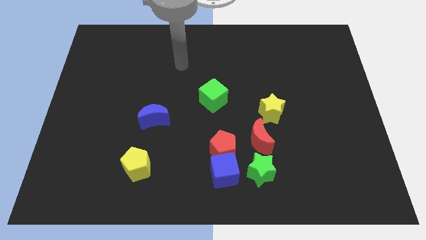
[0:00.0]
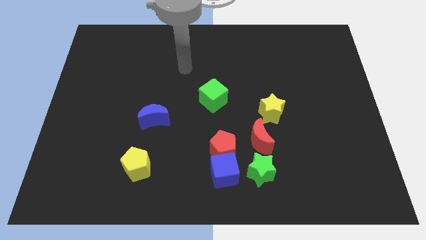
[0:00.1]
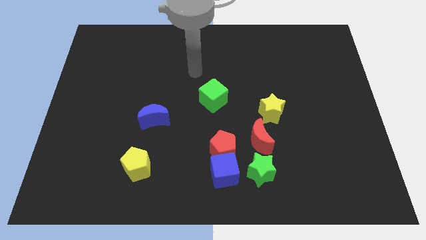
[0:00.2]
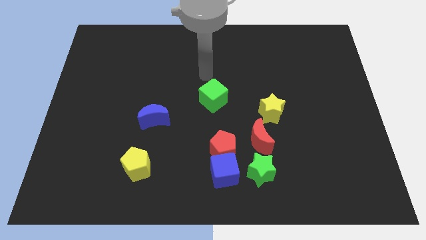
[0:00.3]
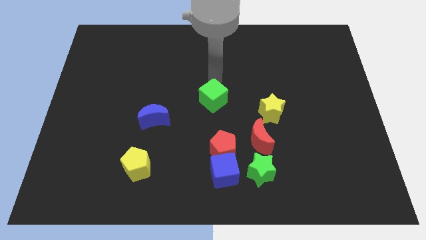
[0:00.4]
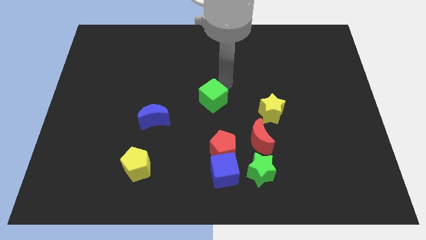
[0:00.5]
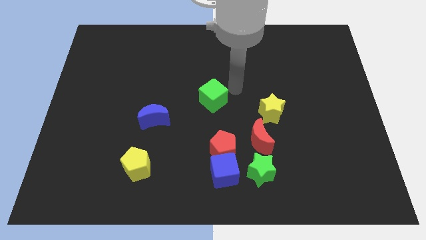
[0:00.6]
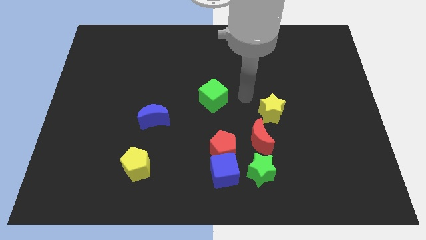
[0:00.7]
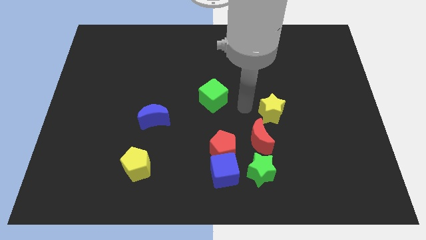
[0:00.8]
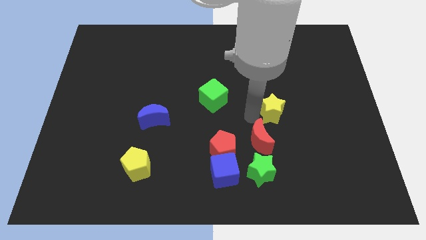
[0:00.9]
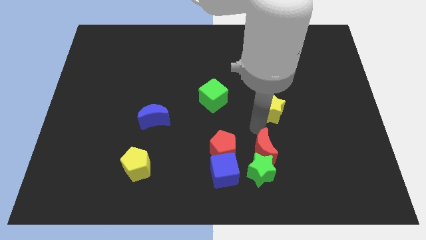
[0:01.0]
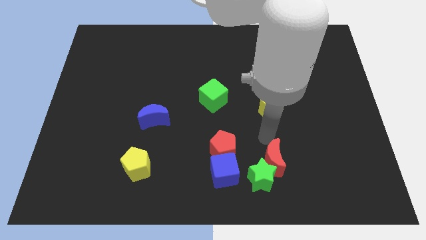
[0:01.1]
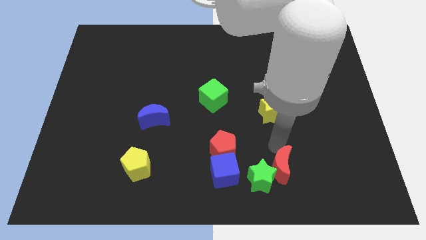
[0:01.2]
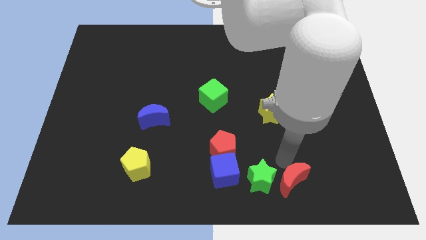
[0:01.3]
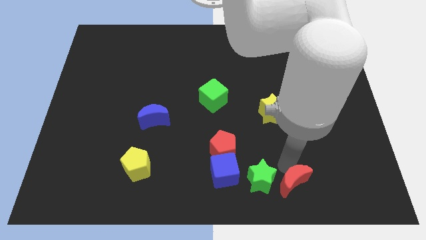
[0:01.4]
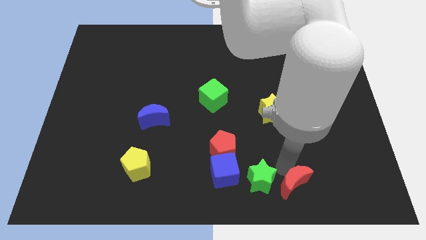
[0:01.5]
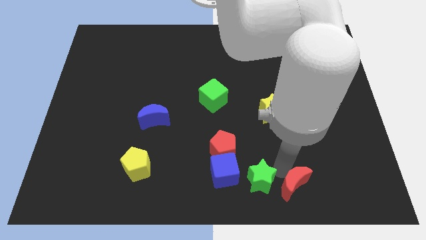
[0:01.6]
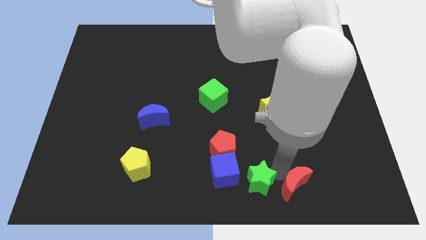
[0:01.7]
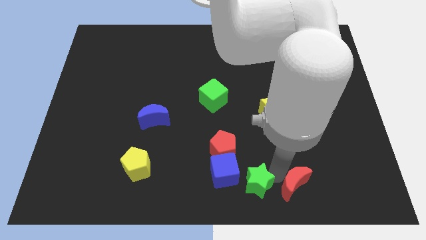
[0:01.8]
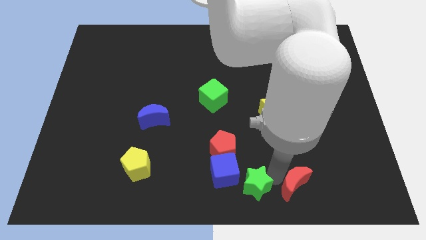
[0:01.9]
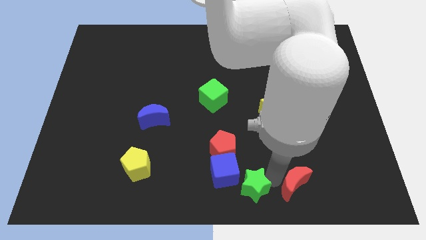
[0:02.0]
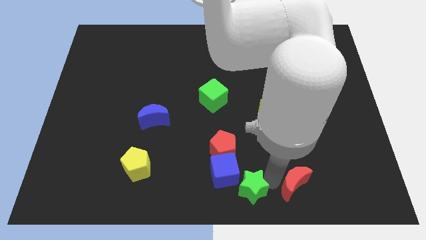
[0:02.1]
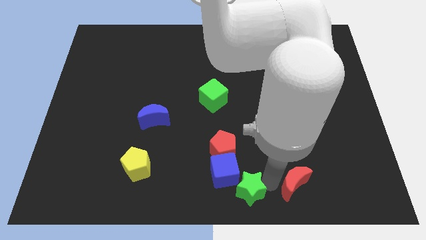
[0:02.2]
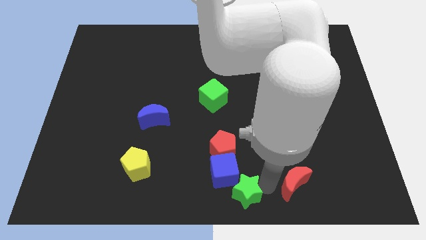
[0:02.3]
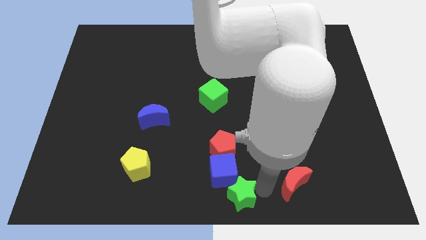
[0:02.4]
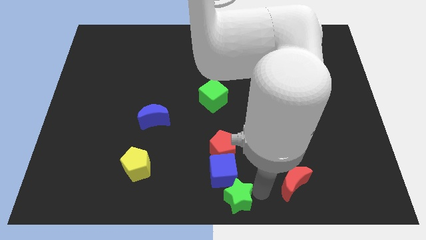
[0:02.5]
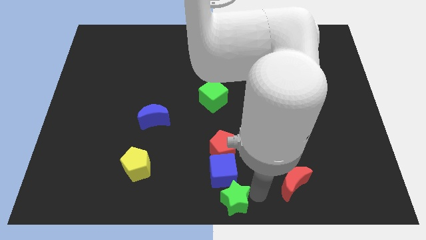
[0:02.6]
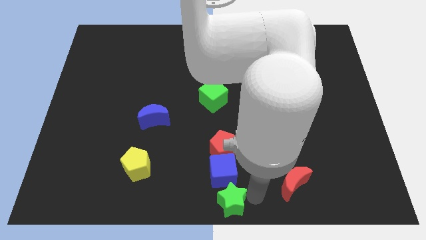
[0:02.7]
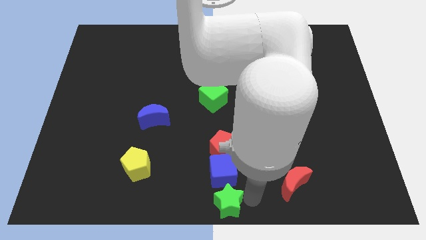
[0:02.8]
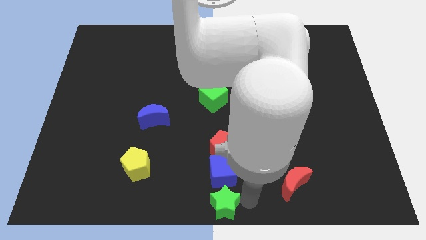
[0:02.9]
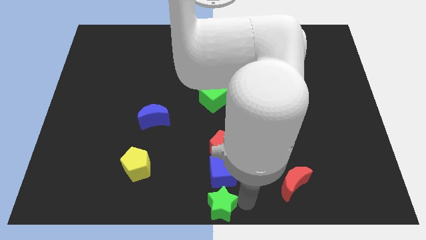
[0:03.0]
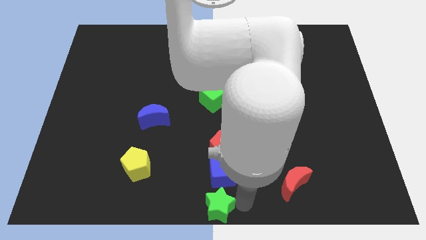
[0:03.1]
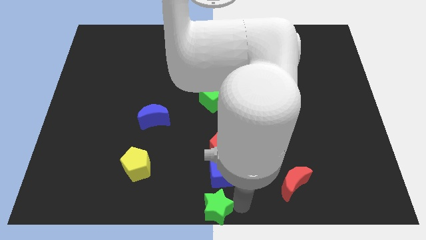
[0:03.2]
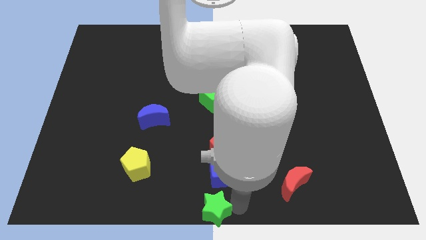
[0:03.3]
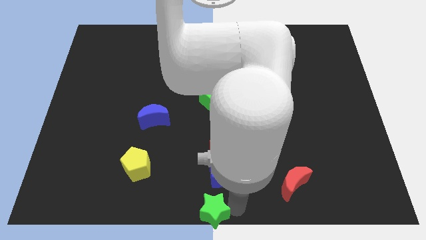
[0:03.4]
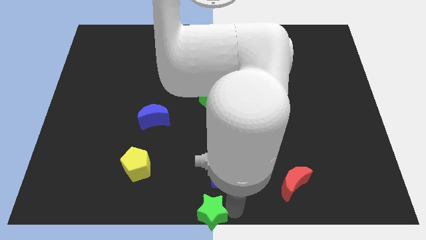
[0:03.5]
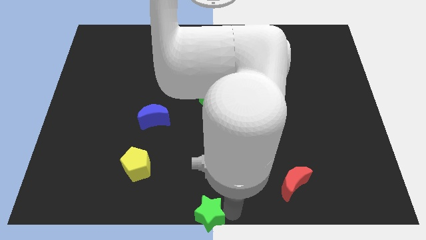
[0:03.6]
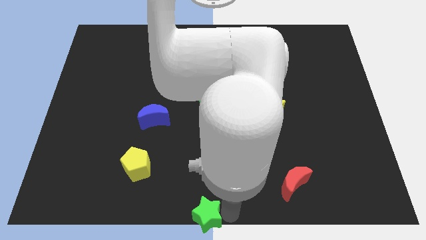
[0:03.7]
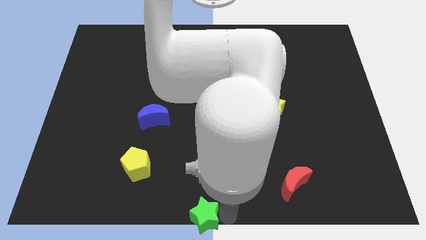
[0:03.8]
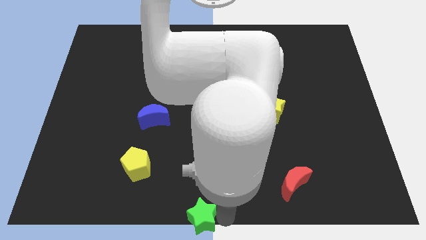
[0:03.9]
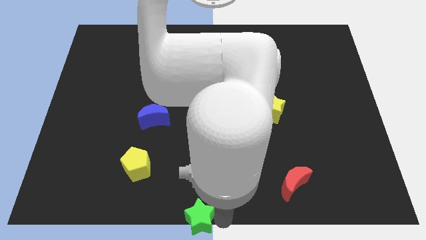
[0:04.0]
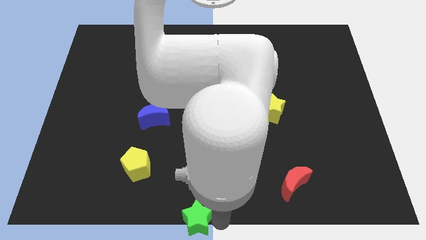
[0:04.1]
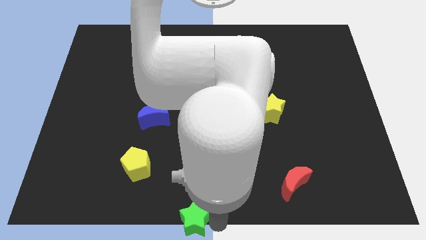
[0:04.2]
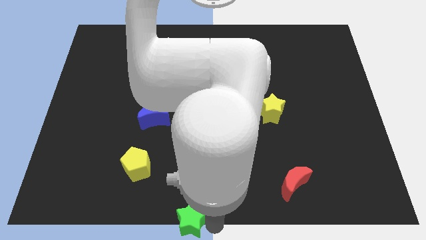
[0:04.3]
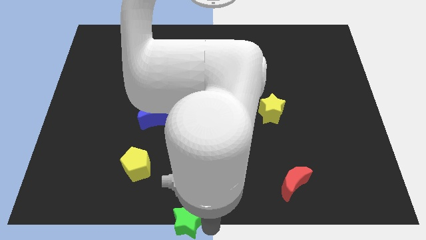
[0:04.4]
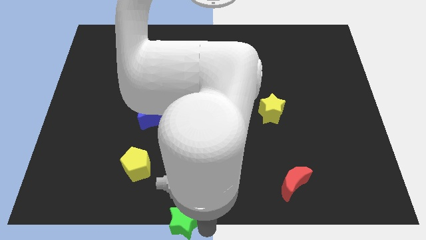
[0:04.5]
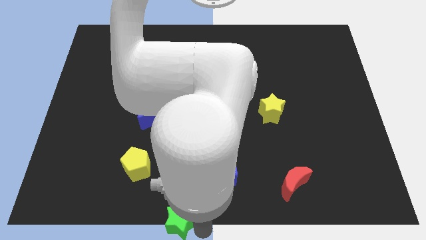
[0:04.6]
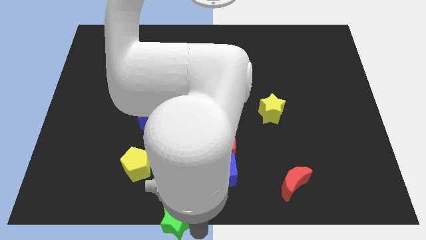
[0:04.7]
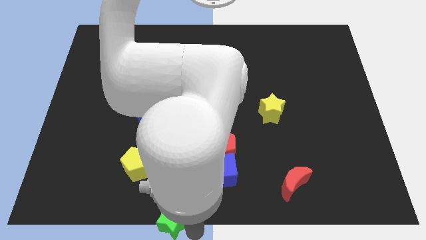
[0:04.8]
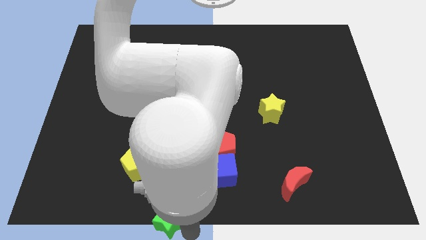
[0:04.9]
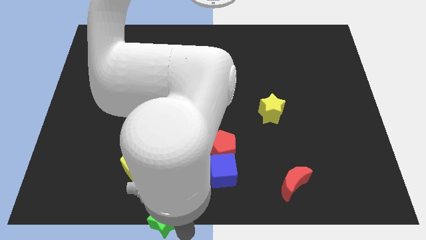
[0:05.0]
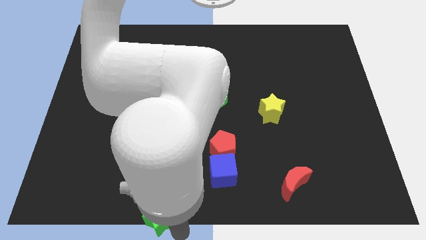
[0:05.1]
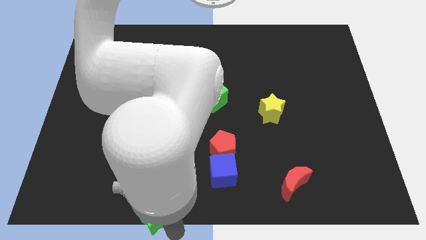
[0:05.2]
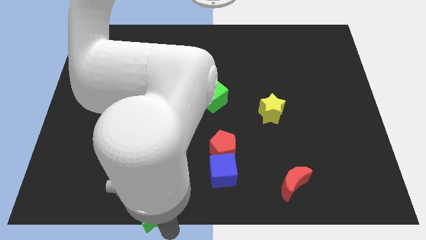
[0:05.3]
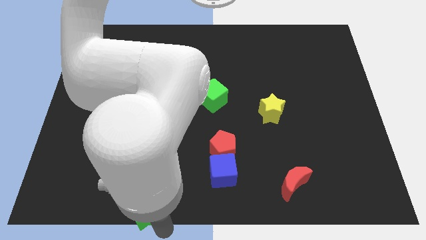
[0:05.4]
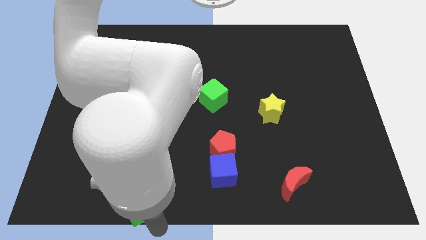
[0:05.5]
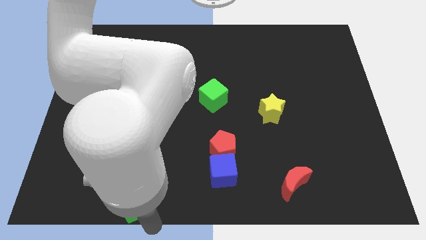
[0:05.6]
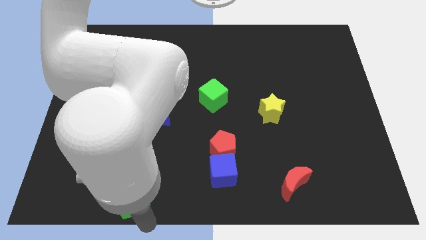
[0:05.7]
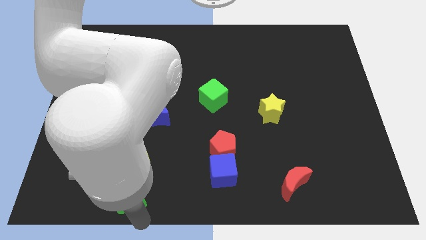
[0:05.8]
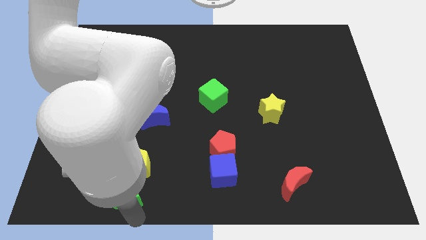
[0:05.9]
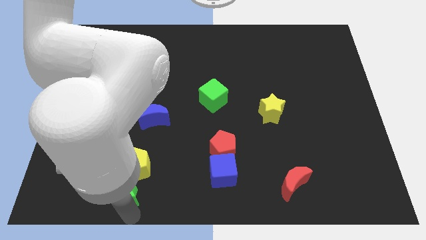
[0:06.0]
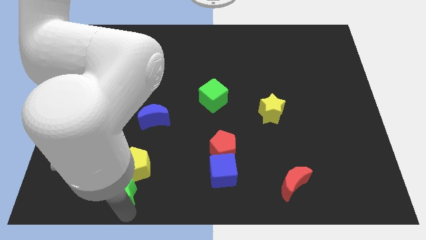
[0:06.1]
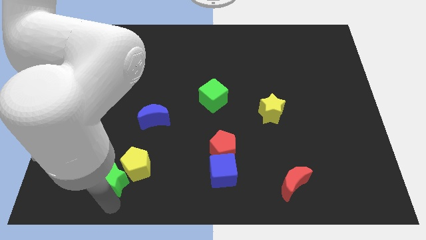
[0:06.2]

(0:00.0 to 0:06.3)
put the green star to the left of the yellow pentagon

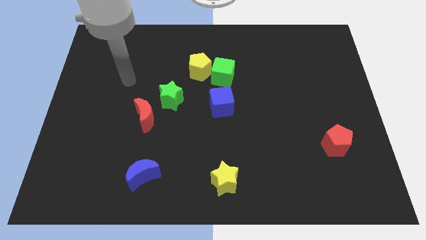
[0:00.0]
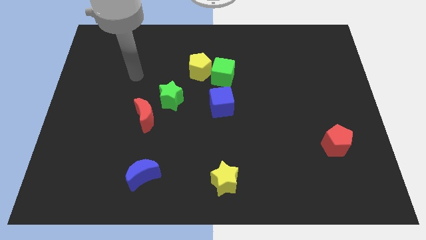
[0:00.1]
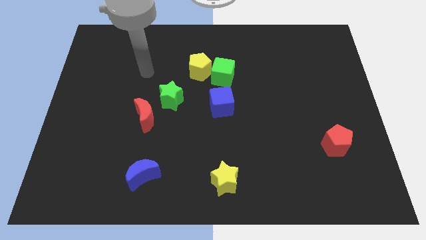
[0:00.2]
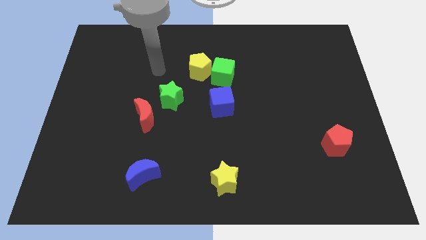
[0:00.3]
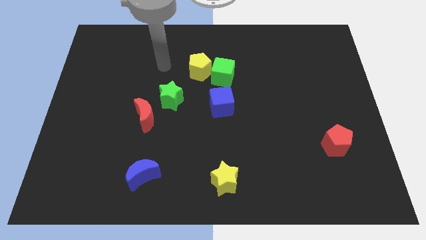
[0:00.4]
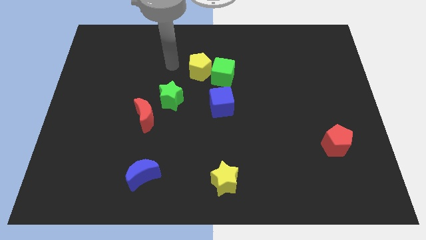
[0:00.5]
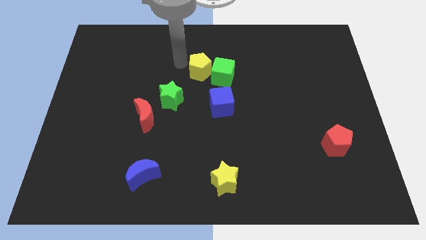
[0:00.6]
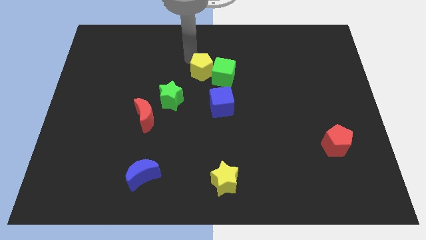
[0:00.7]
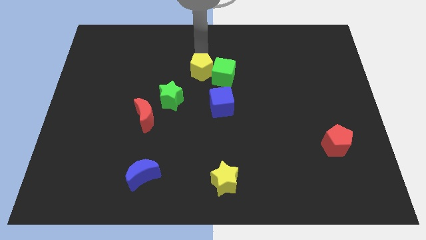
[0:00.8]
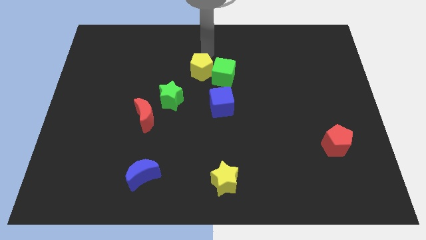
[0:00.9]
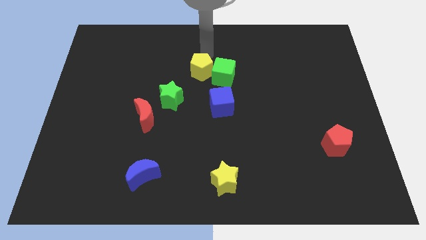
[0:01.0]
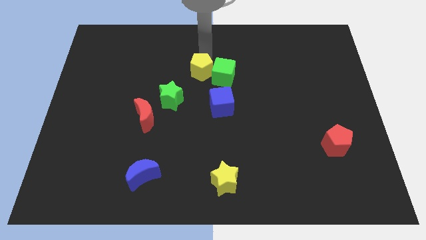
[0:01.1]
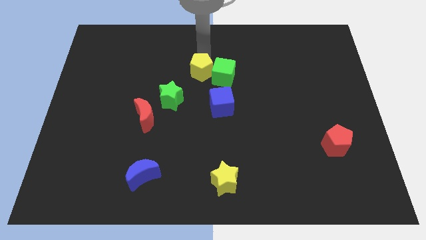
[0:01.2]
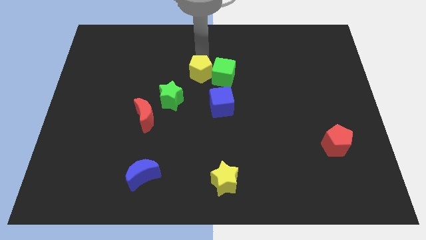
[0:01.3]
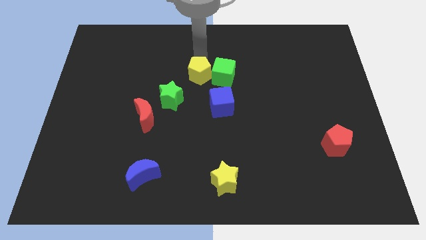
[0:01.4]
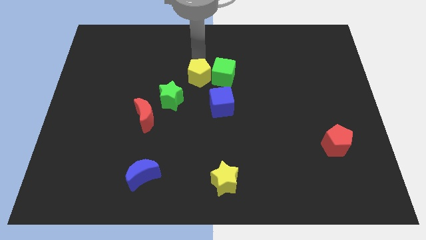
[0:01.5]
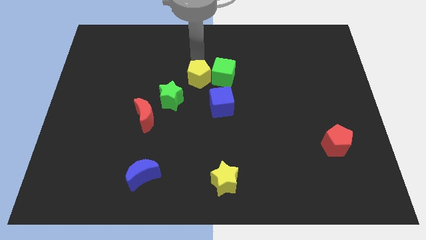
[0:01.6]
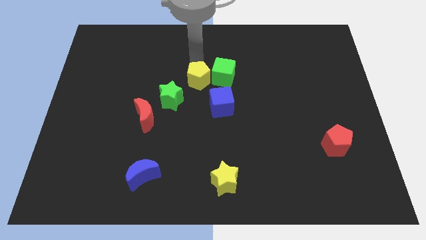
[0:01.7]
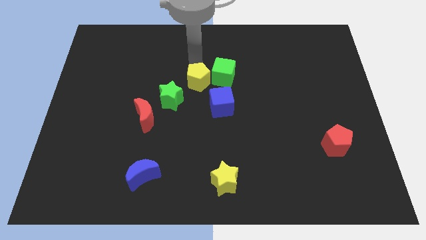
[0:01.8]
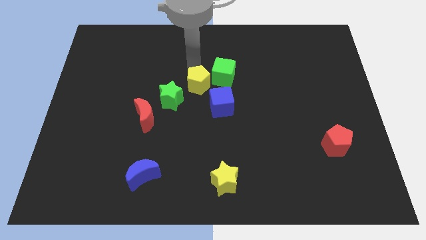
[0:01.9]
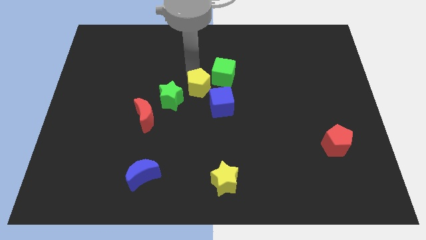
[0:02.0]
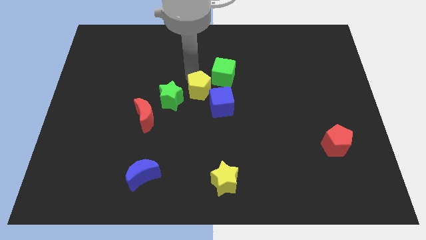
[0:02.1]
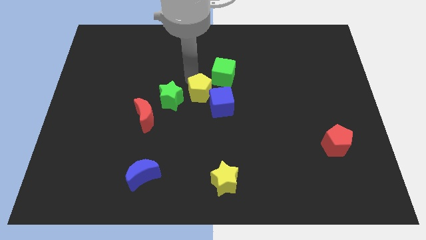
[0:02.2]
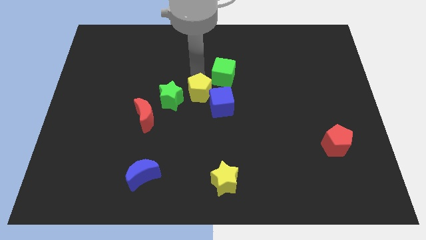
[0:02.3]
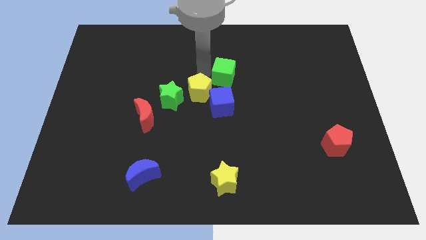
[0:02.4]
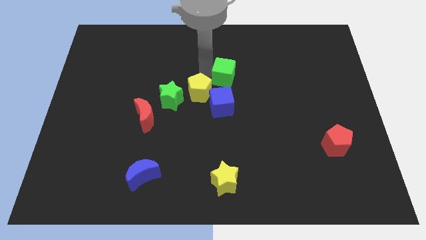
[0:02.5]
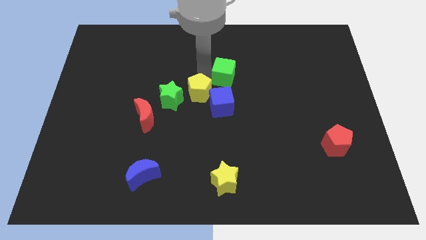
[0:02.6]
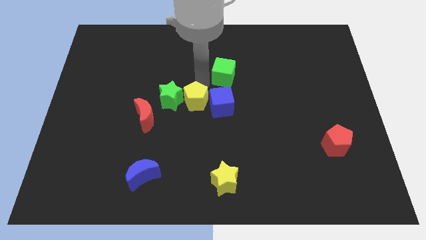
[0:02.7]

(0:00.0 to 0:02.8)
push the yellow pentagon to the right of the red moon
